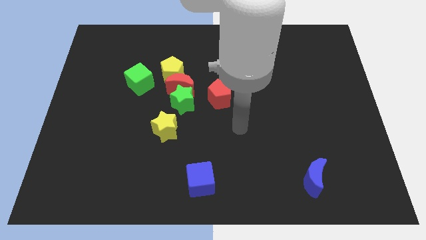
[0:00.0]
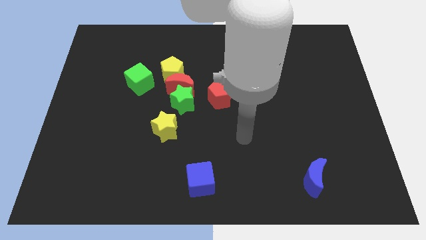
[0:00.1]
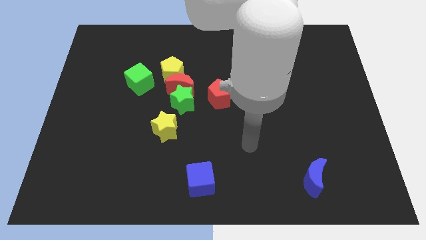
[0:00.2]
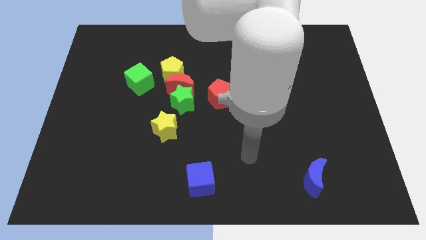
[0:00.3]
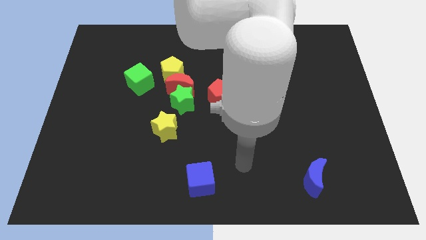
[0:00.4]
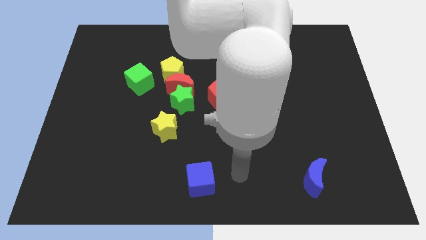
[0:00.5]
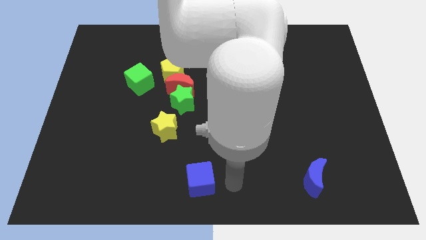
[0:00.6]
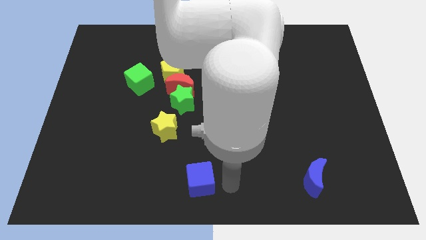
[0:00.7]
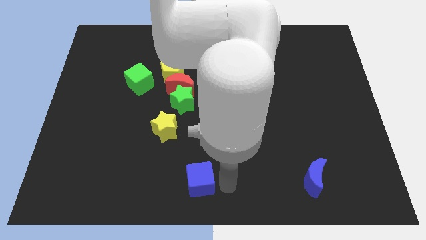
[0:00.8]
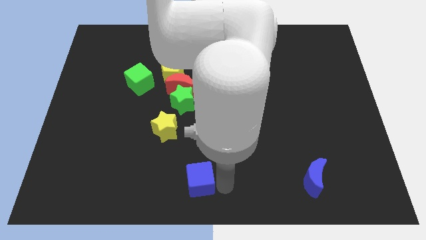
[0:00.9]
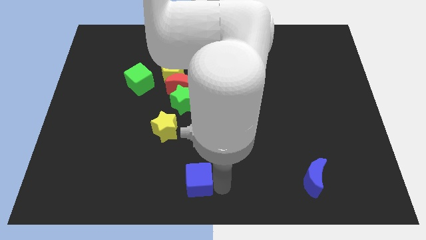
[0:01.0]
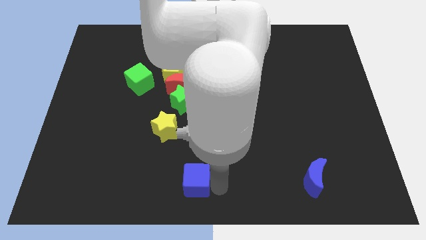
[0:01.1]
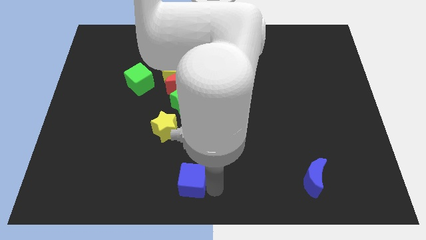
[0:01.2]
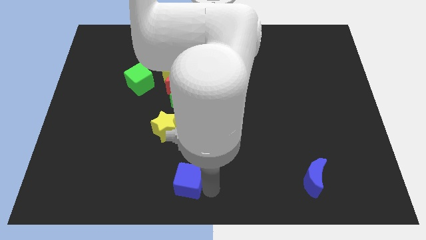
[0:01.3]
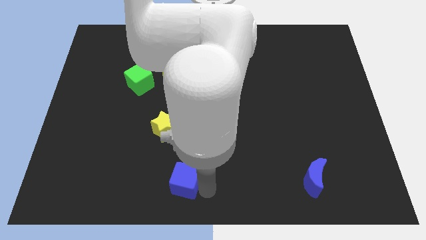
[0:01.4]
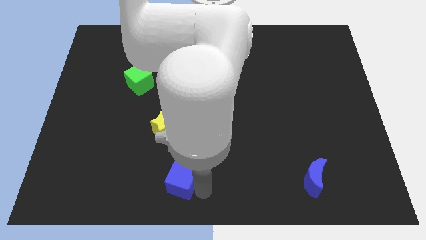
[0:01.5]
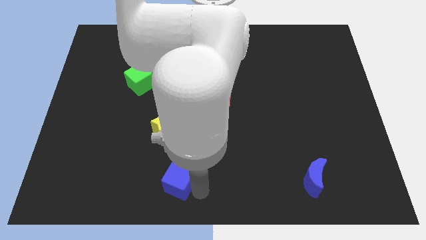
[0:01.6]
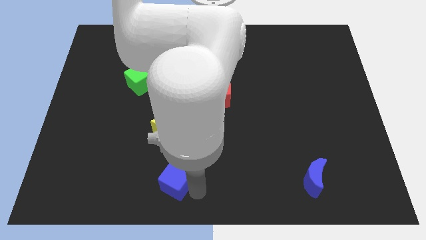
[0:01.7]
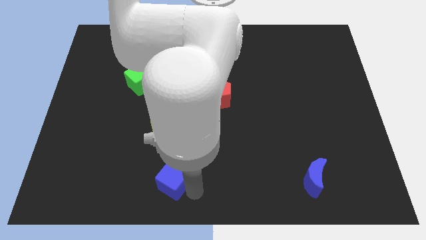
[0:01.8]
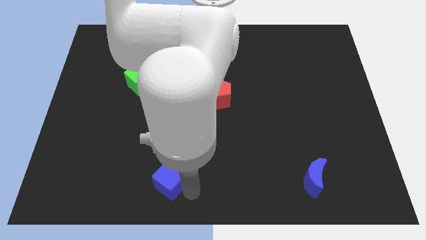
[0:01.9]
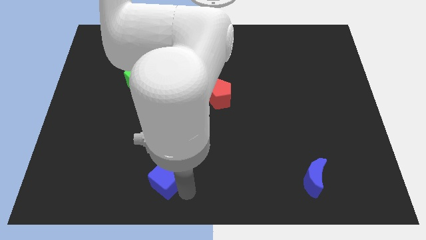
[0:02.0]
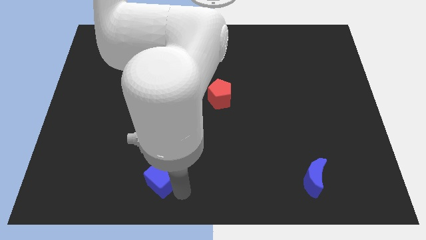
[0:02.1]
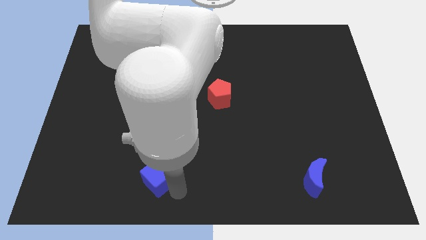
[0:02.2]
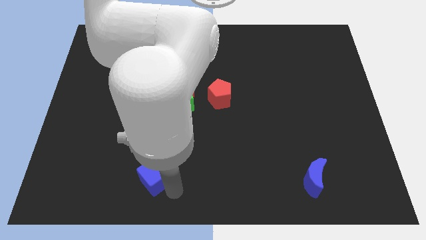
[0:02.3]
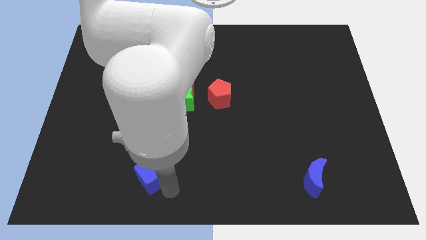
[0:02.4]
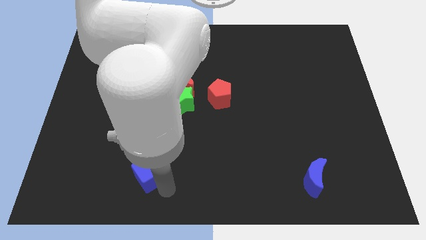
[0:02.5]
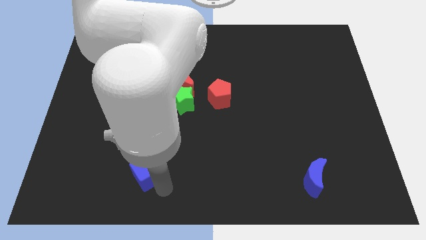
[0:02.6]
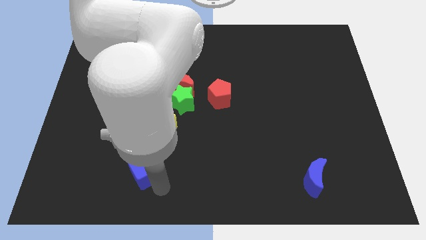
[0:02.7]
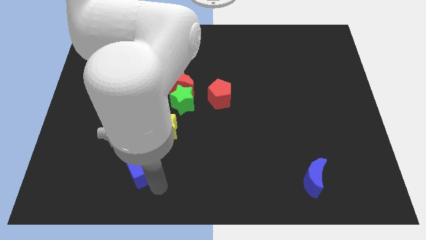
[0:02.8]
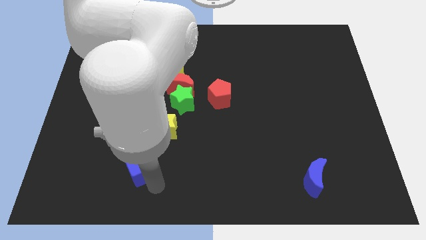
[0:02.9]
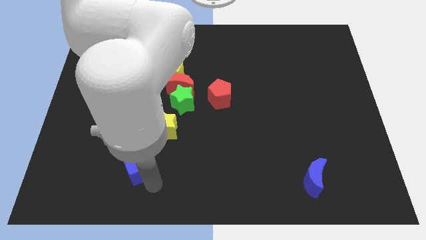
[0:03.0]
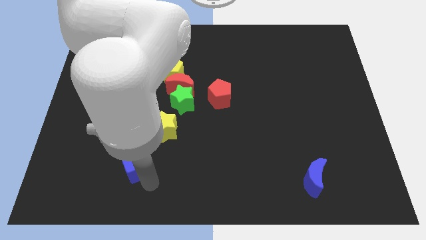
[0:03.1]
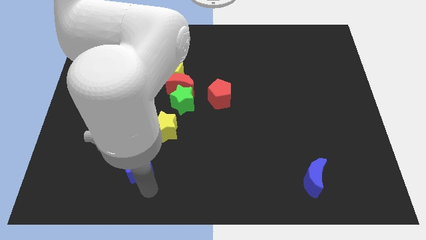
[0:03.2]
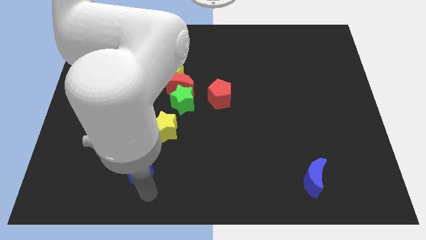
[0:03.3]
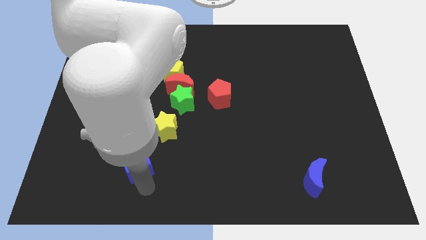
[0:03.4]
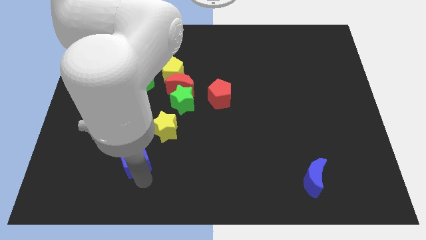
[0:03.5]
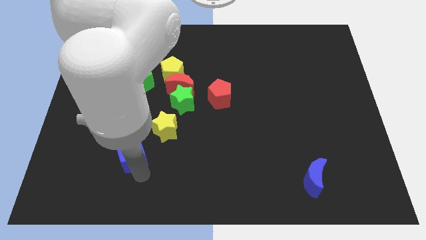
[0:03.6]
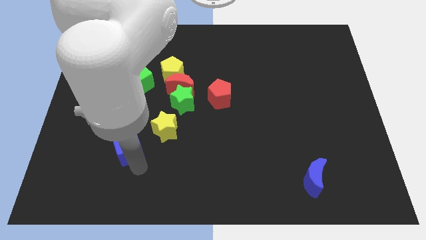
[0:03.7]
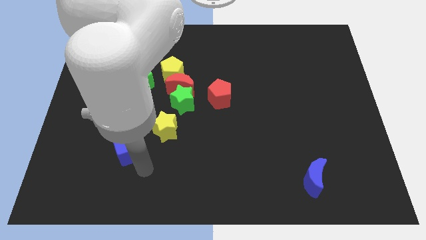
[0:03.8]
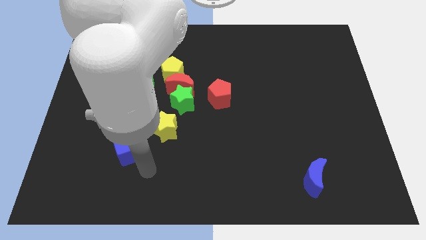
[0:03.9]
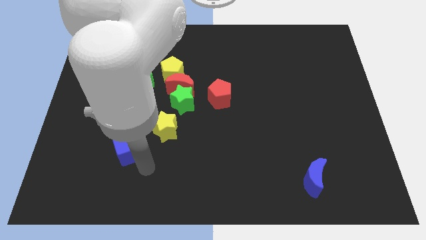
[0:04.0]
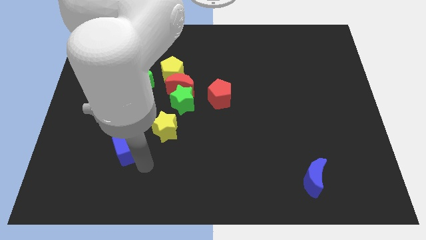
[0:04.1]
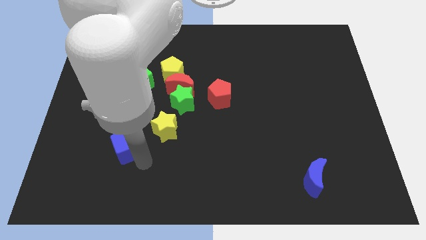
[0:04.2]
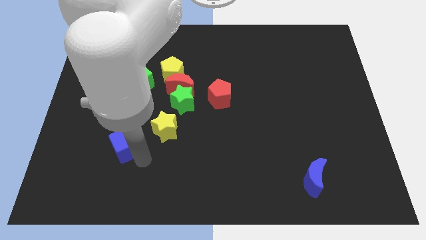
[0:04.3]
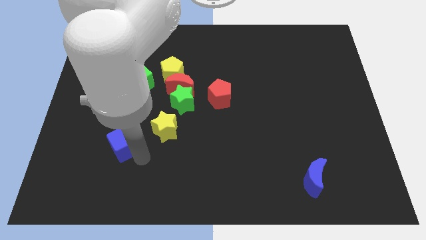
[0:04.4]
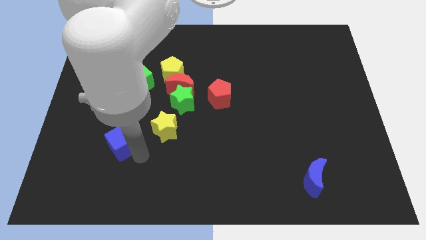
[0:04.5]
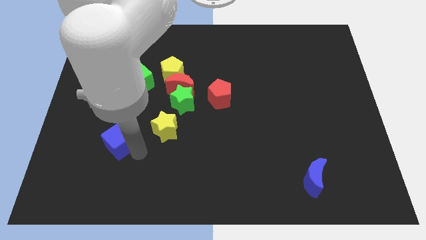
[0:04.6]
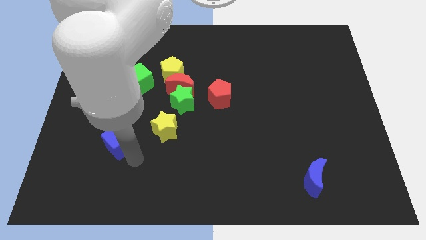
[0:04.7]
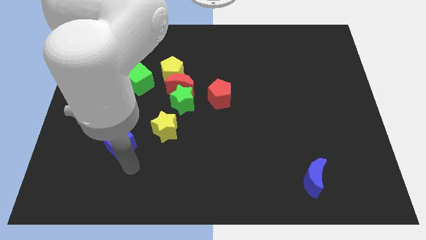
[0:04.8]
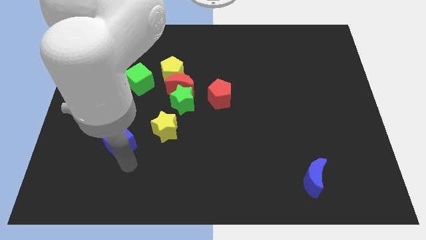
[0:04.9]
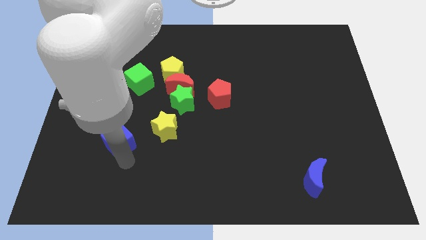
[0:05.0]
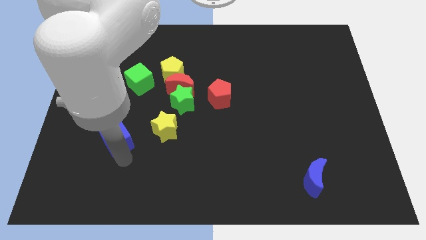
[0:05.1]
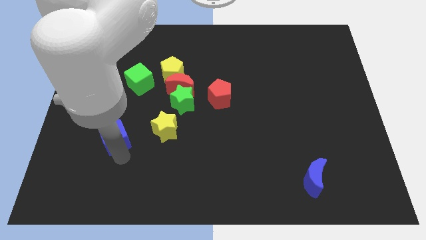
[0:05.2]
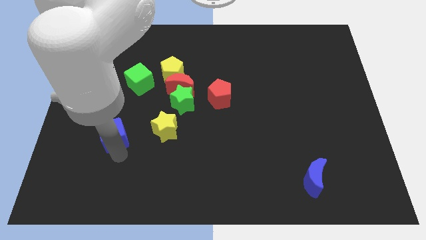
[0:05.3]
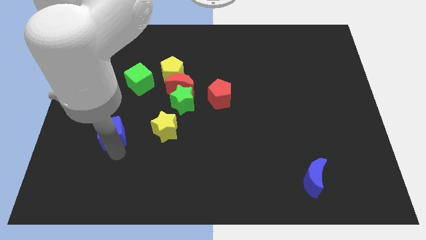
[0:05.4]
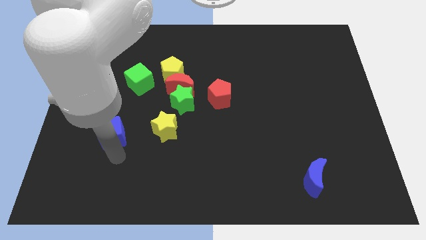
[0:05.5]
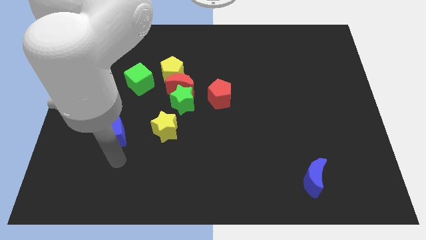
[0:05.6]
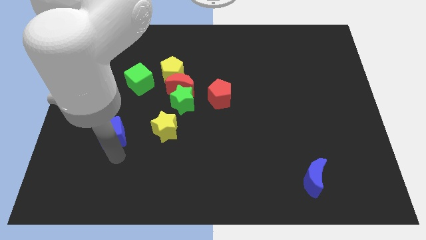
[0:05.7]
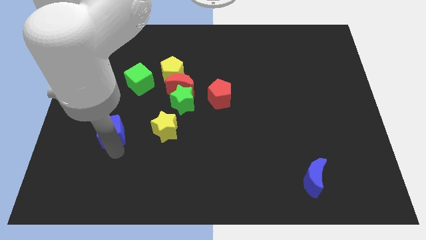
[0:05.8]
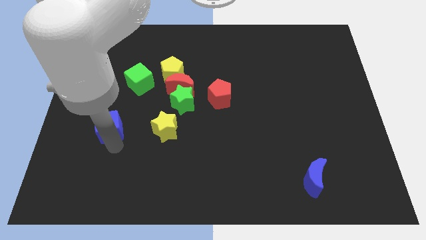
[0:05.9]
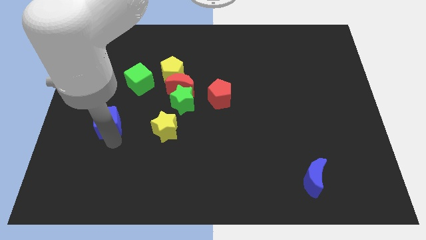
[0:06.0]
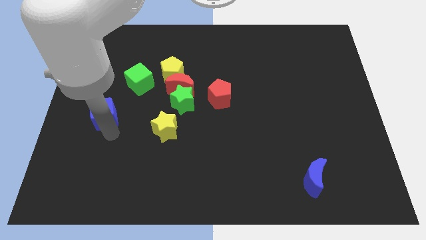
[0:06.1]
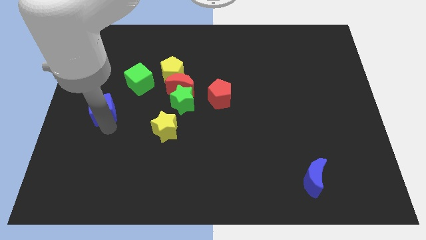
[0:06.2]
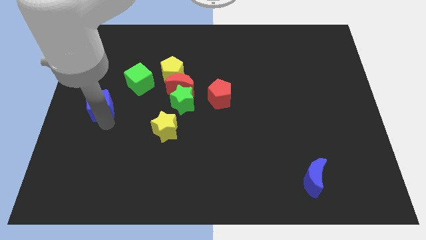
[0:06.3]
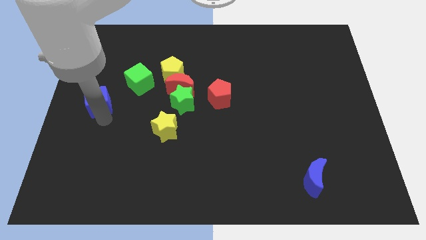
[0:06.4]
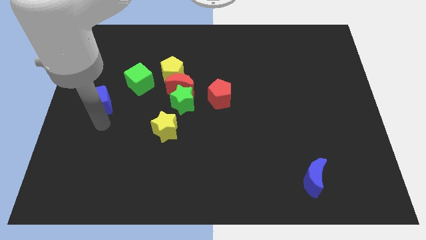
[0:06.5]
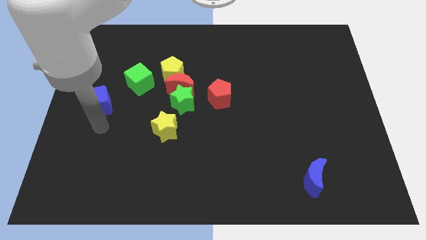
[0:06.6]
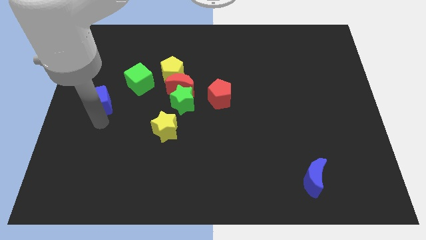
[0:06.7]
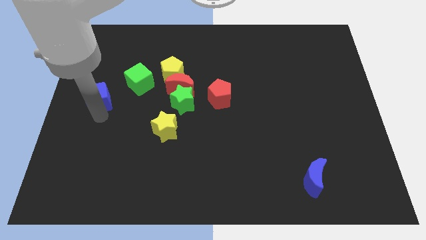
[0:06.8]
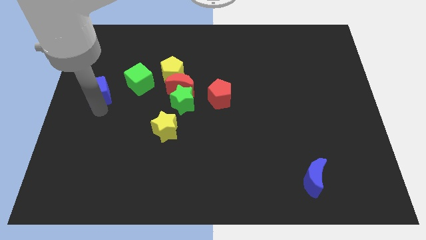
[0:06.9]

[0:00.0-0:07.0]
move the blue cube to the left of the green cube
